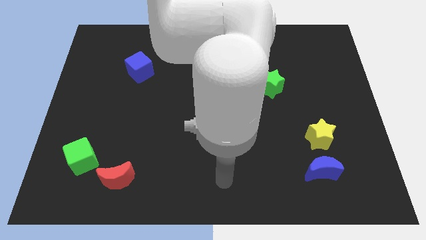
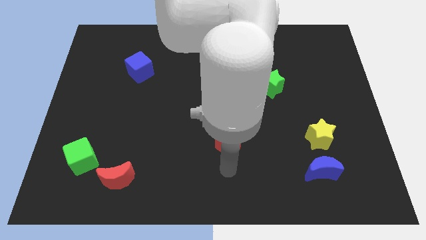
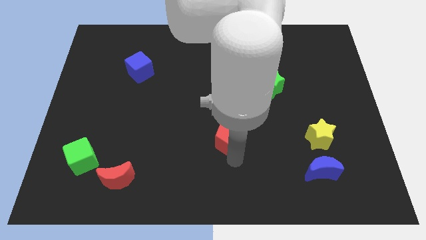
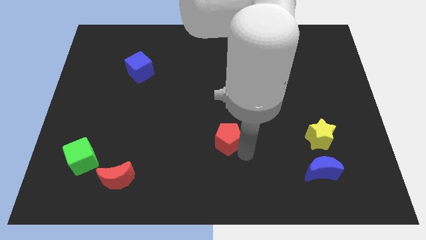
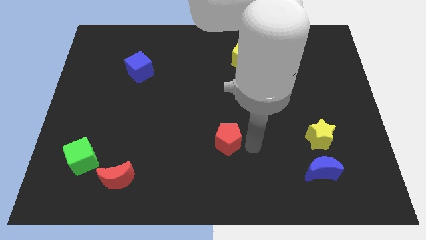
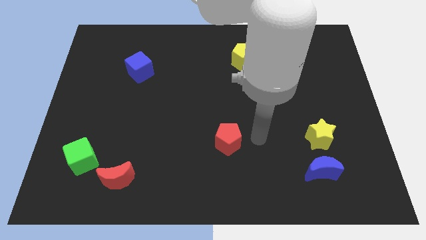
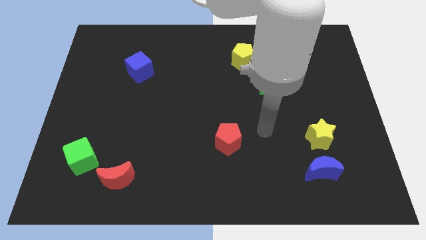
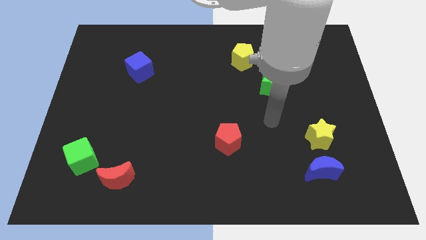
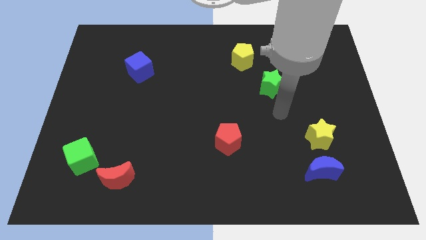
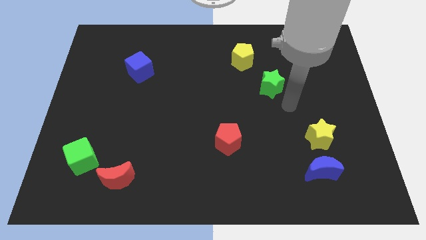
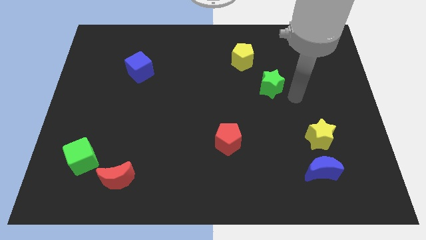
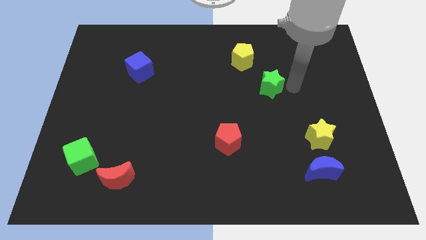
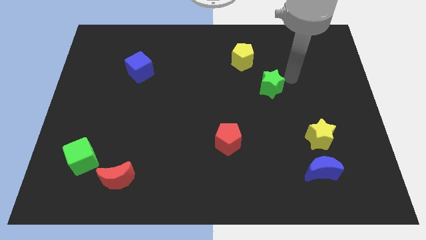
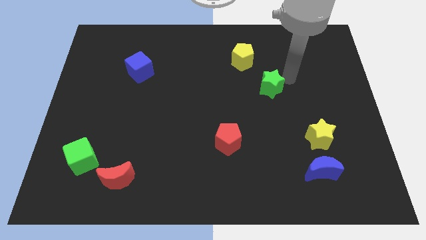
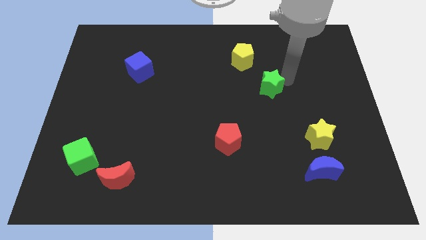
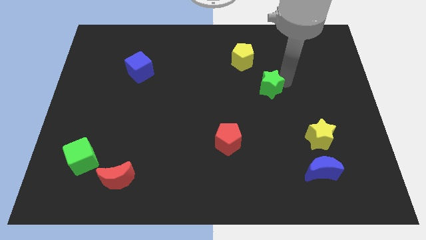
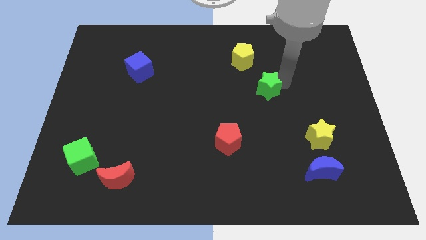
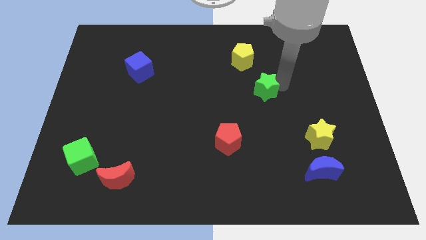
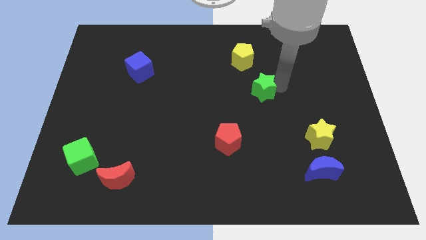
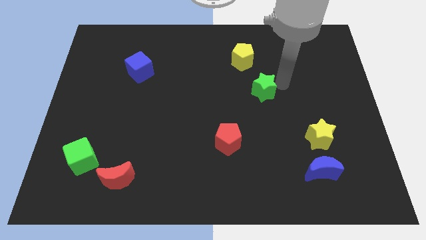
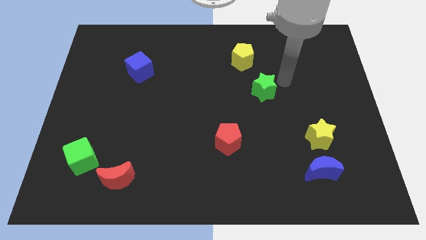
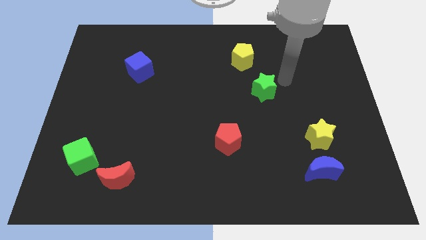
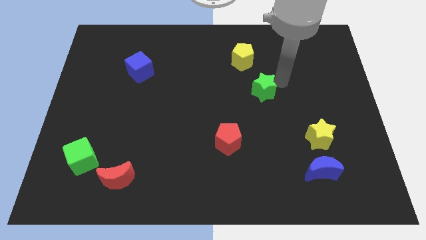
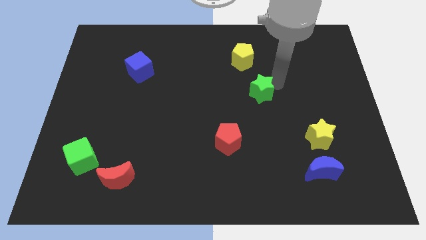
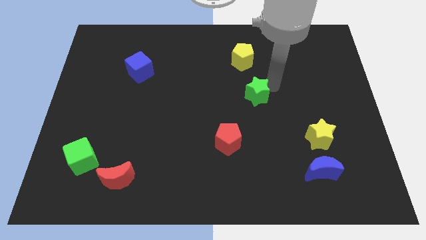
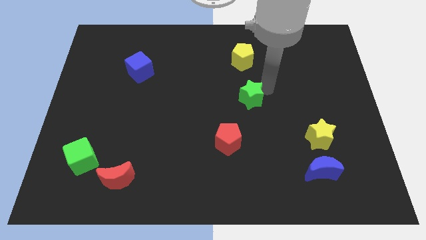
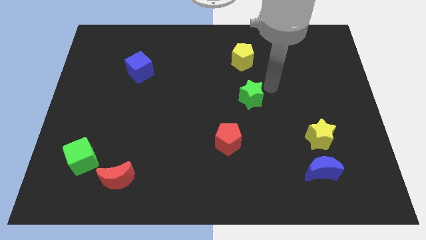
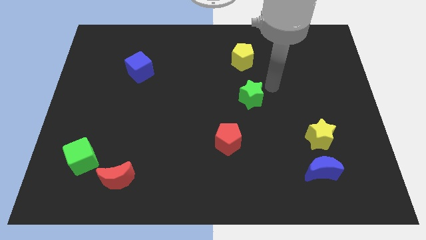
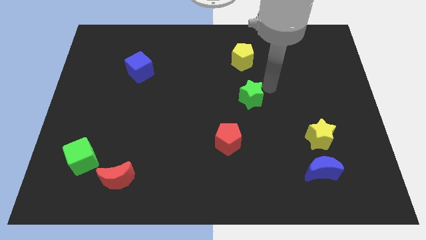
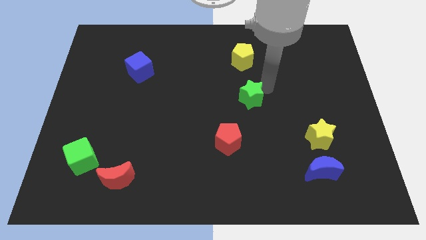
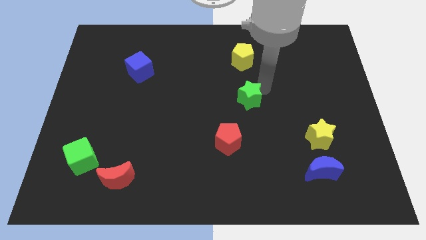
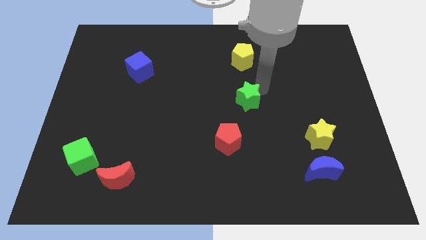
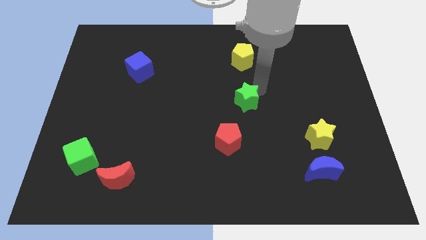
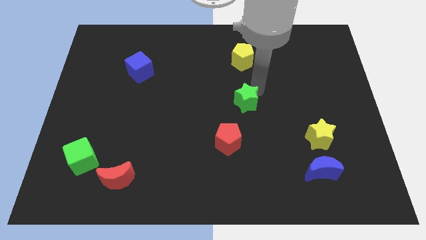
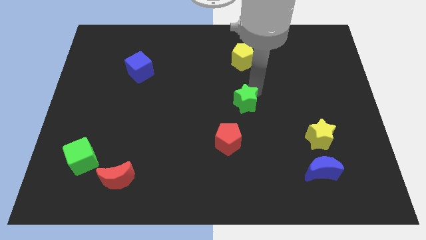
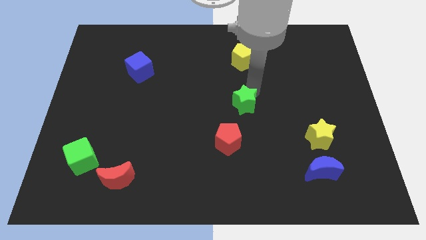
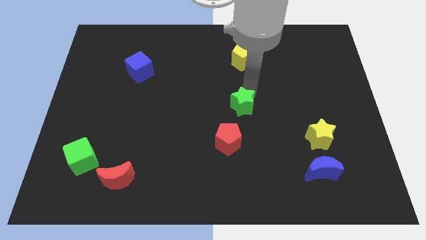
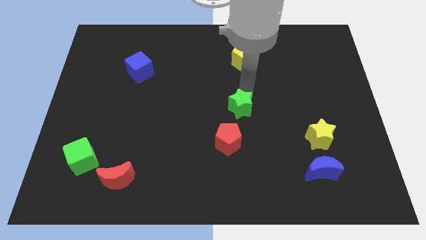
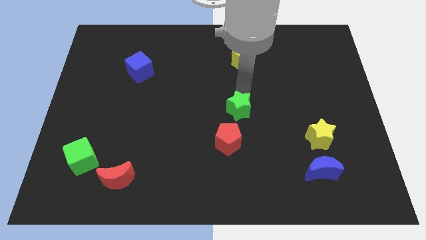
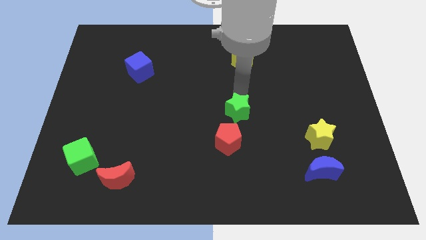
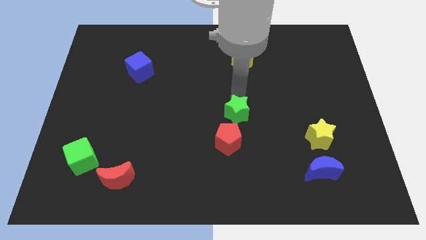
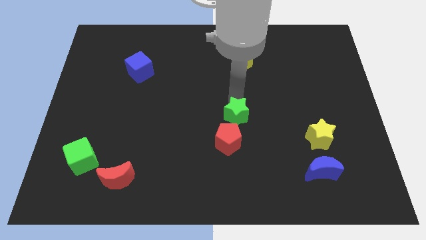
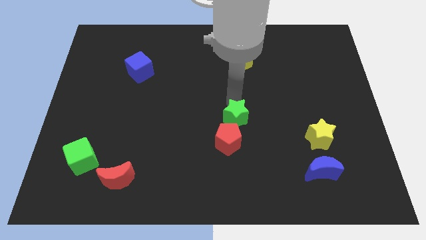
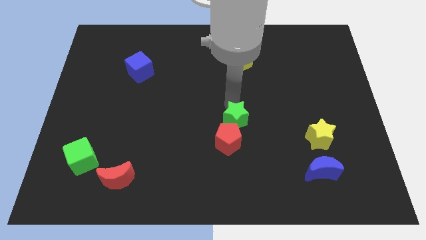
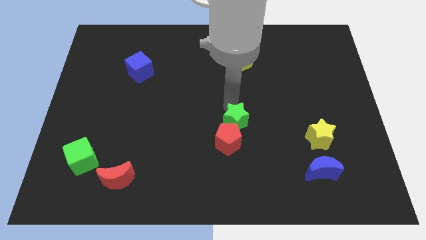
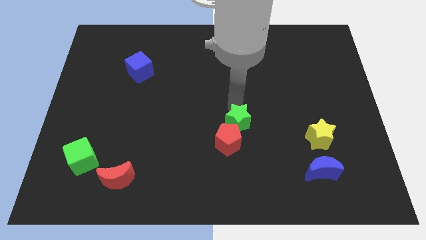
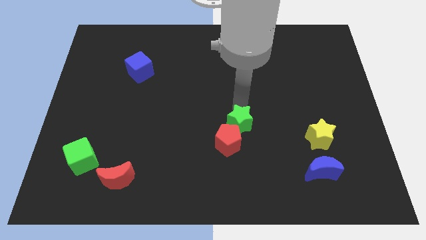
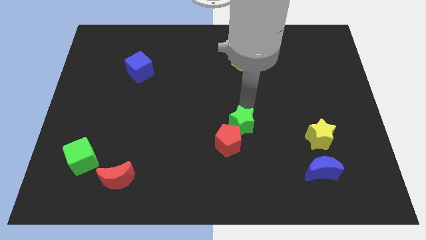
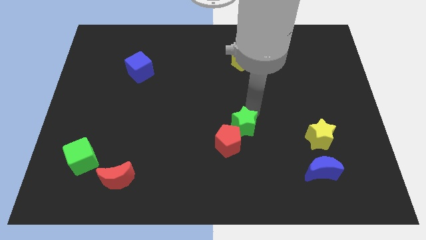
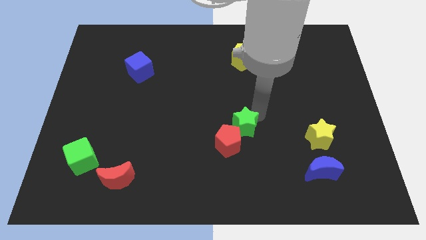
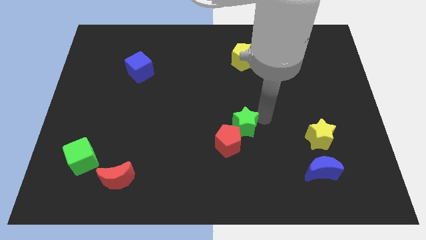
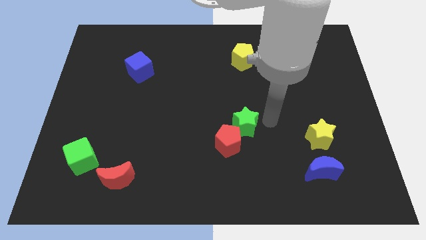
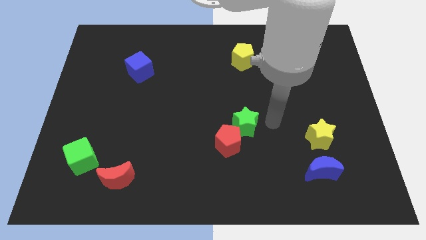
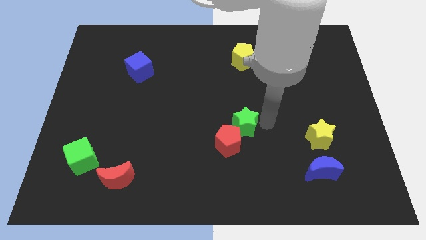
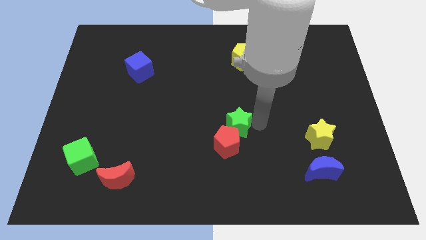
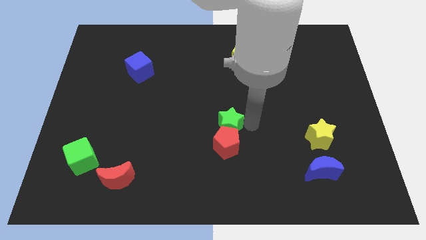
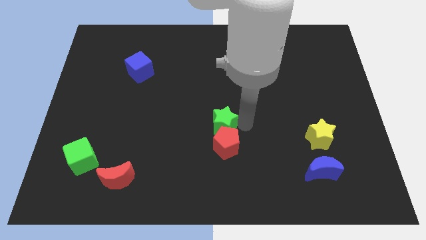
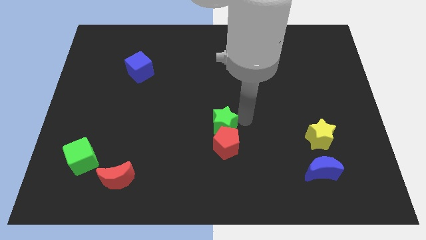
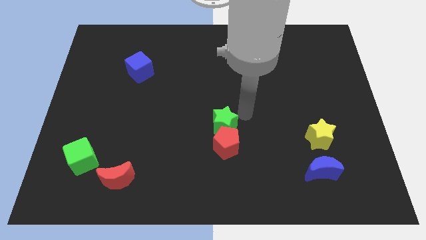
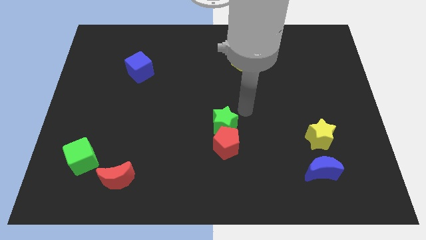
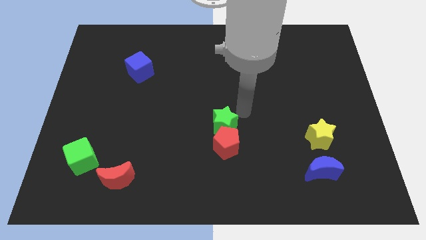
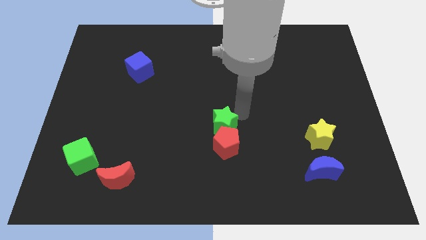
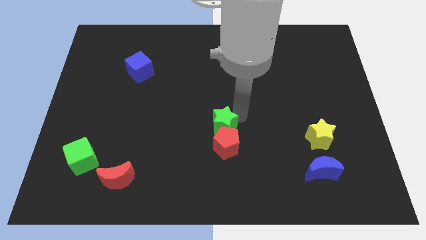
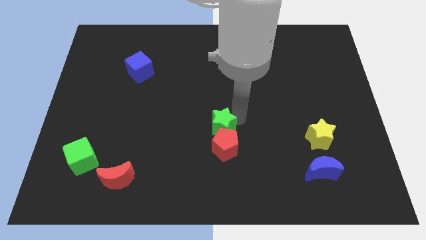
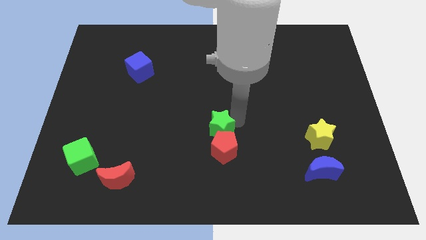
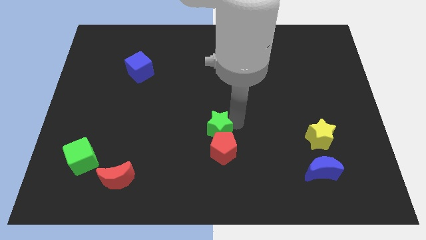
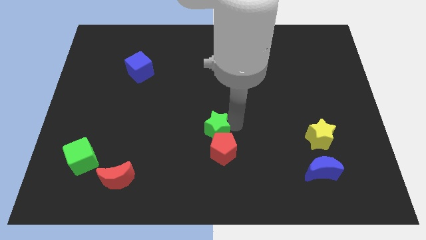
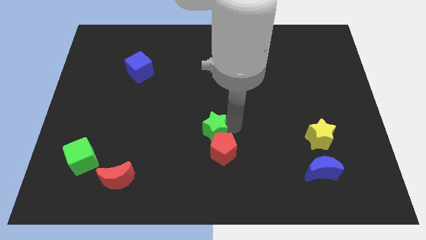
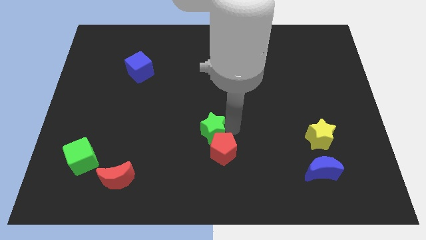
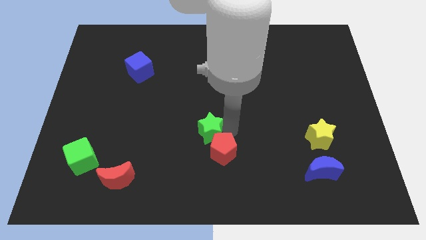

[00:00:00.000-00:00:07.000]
push the green star down and to the left diagonally

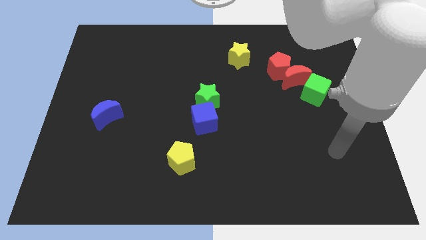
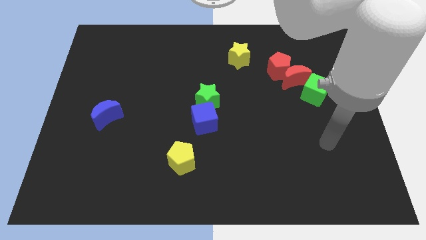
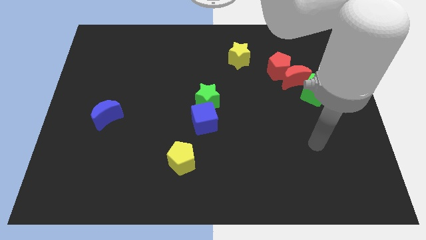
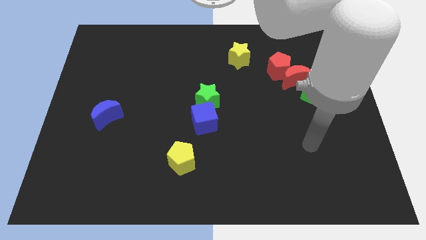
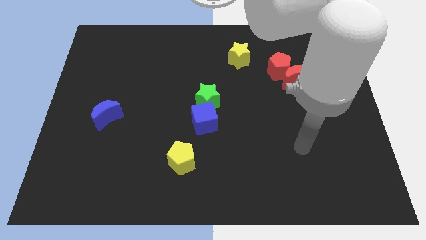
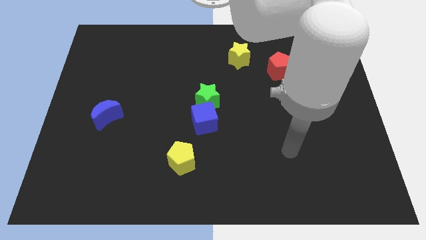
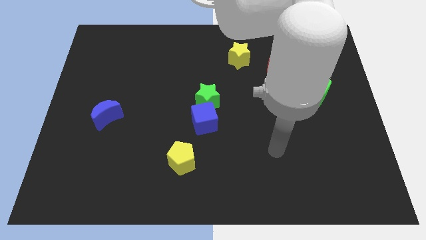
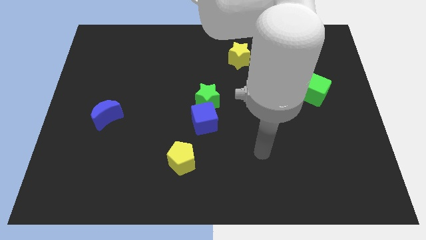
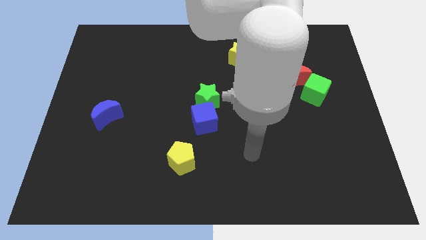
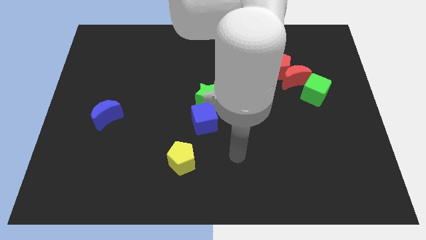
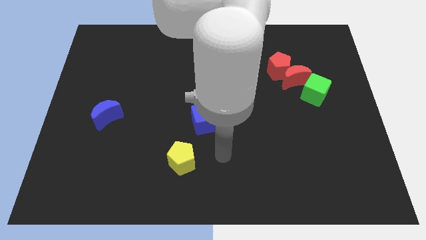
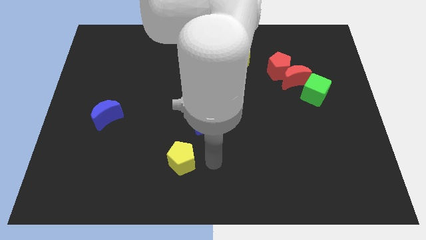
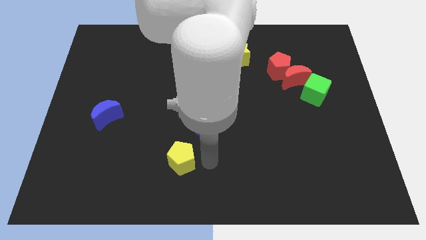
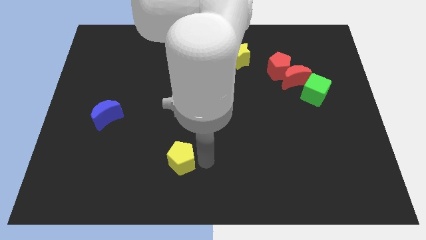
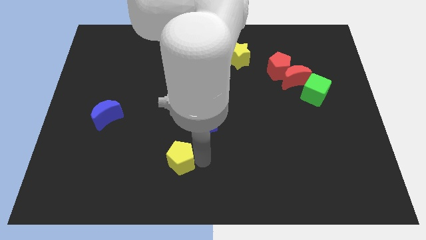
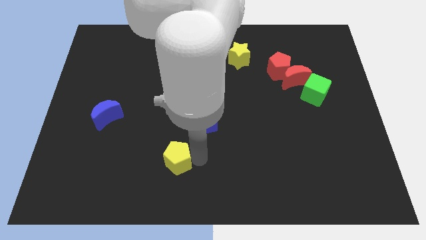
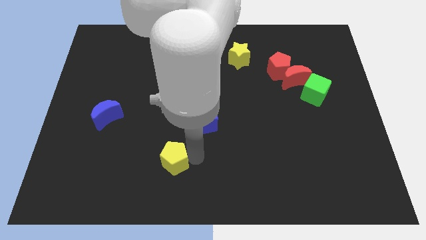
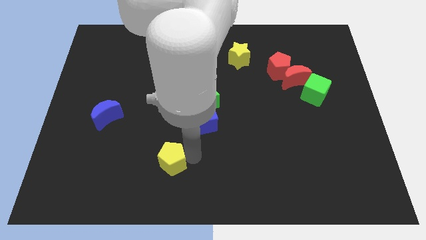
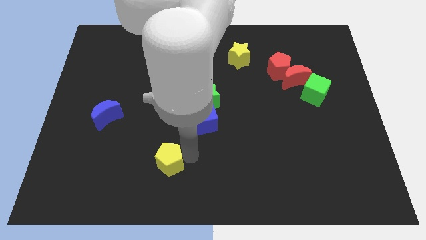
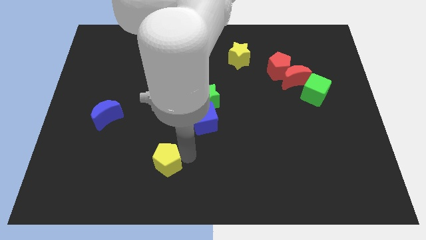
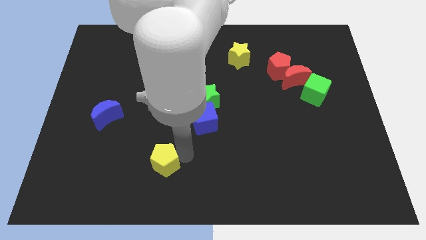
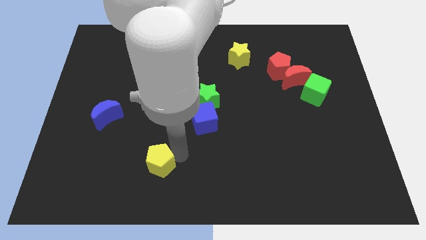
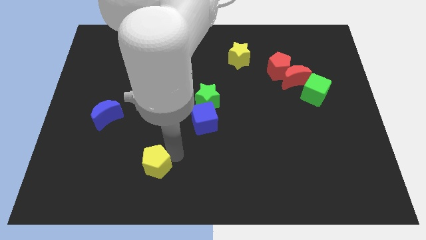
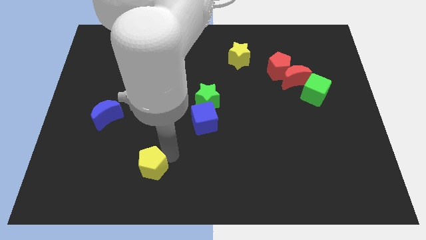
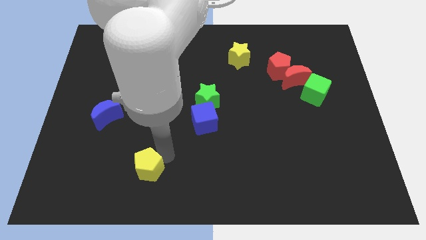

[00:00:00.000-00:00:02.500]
slightly slide the yellow pentagon left
